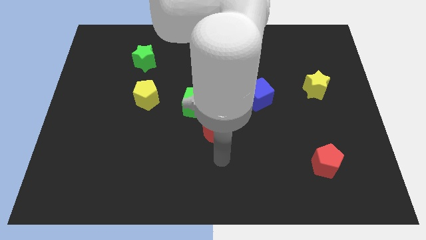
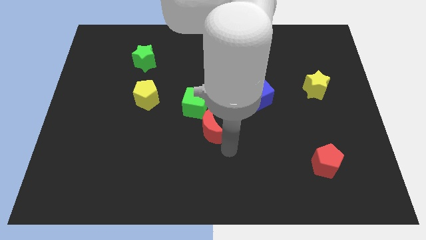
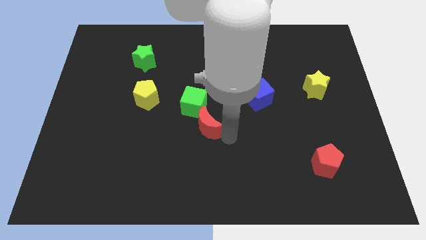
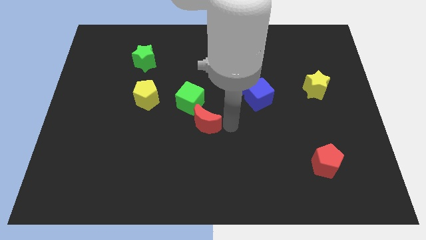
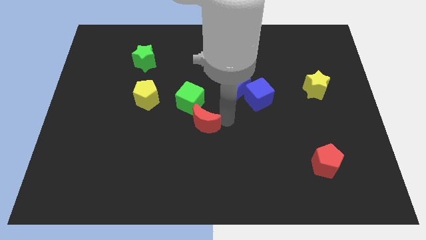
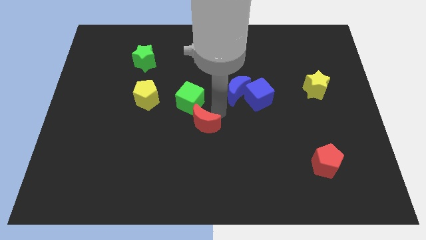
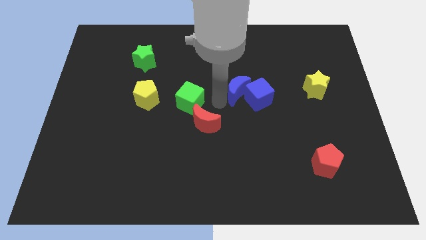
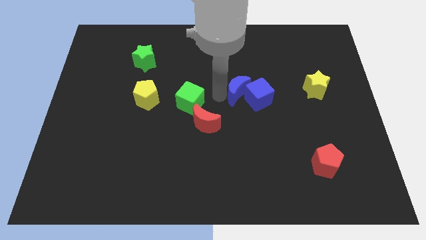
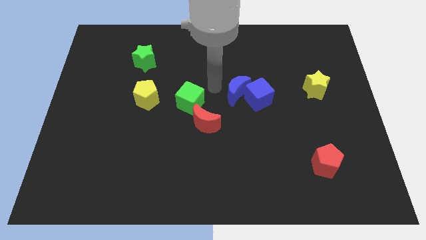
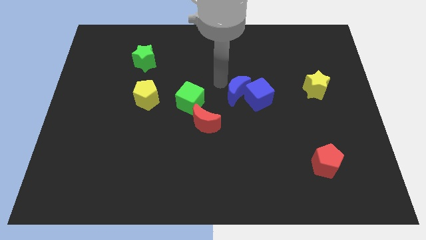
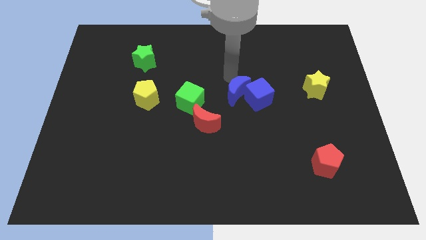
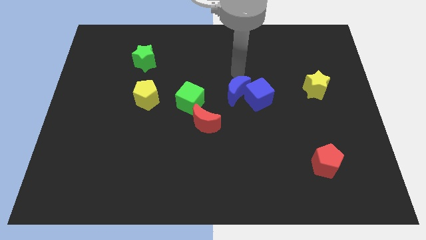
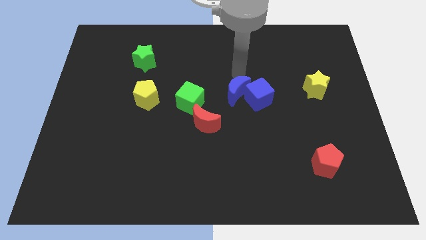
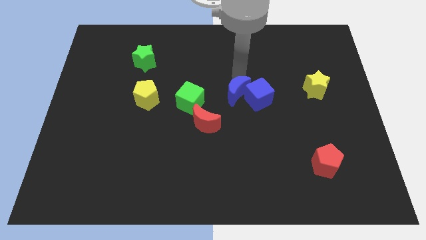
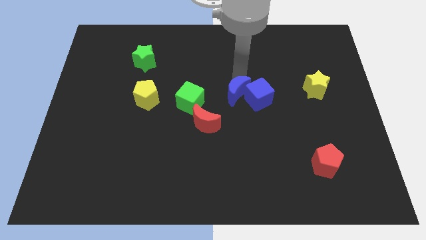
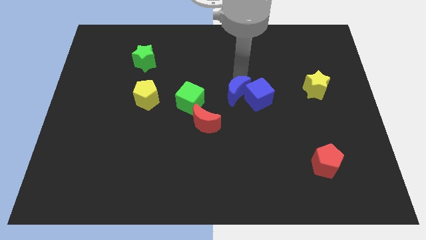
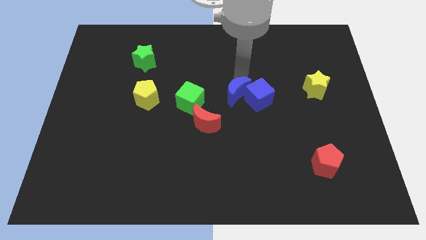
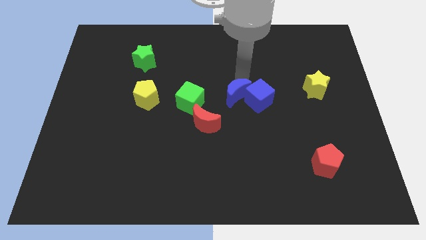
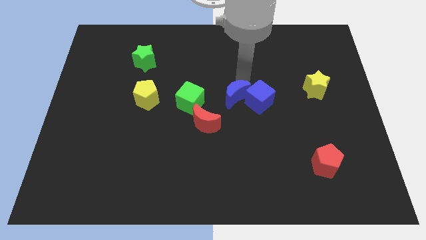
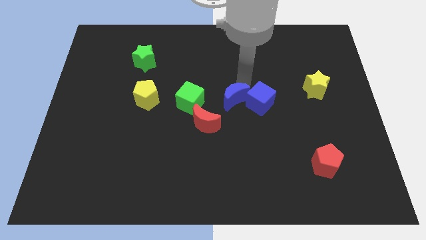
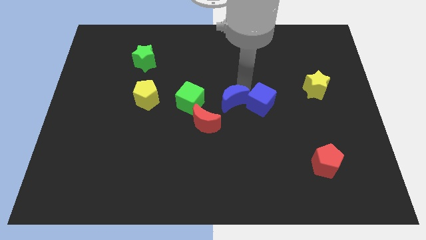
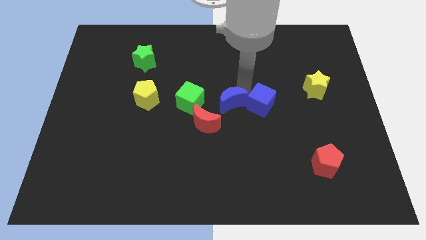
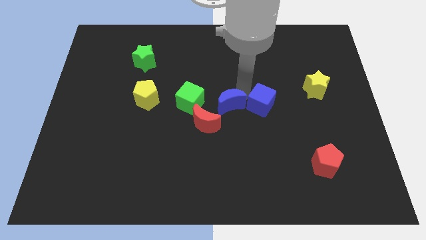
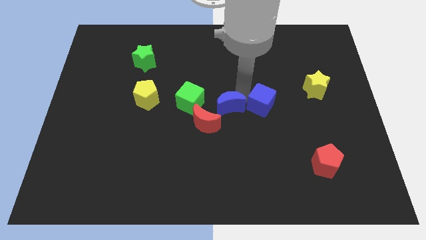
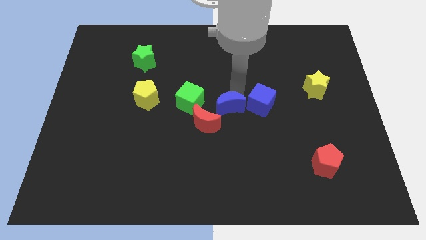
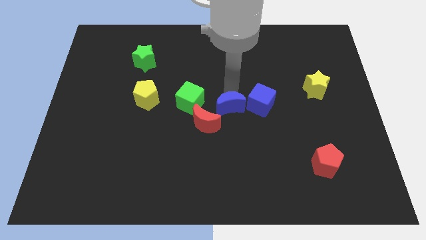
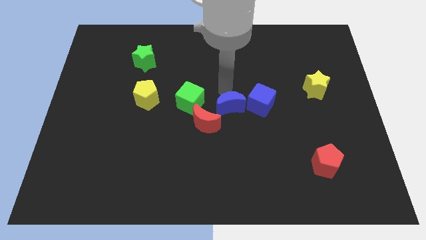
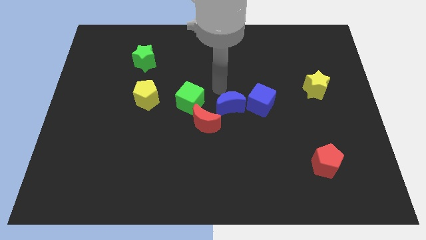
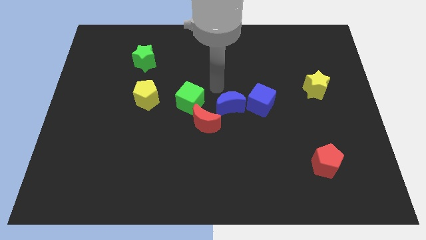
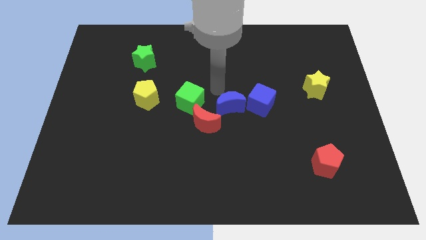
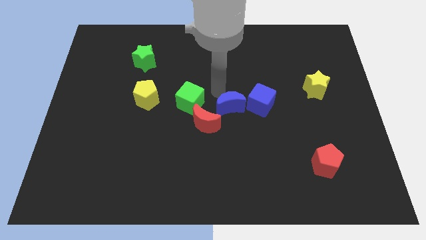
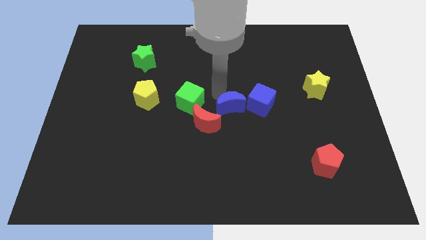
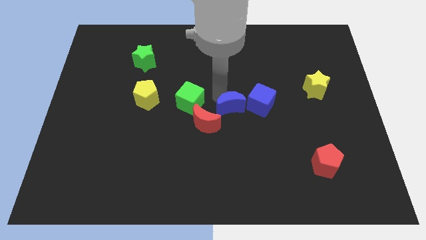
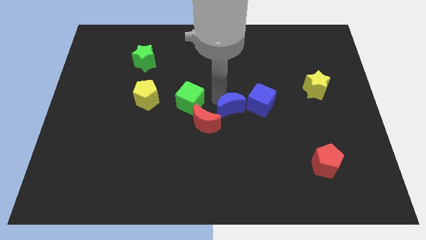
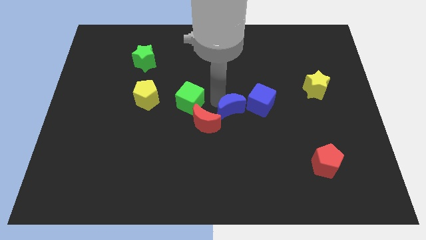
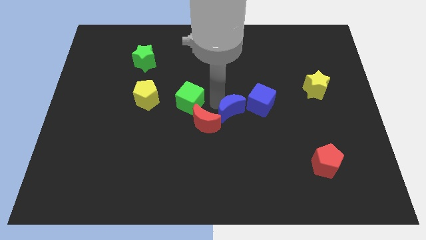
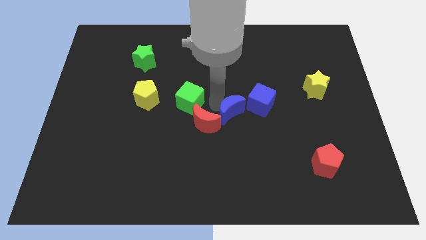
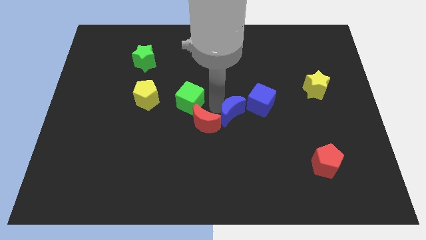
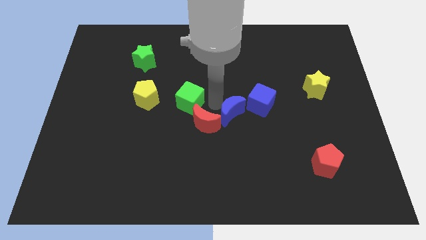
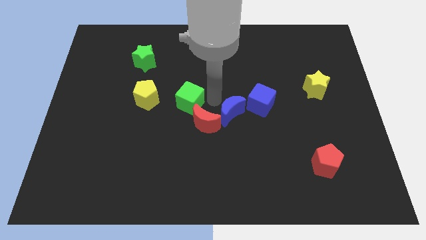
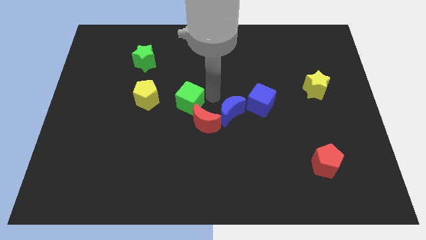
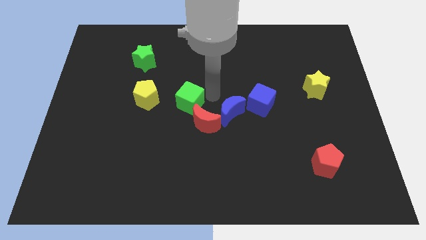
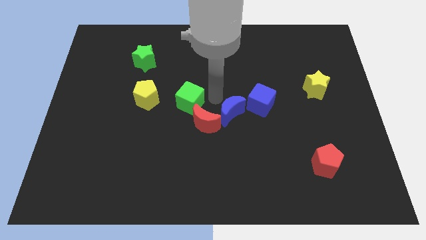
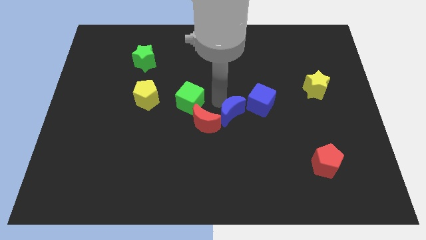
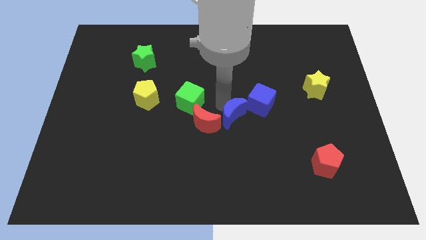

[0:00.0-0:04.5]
move the blue moon slightly downwards

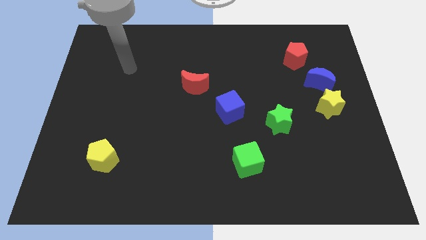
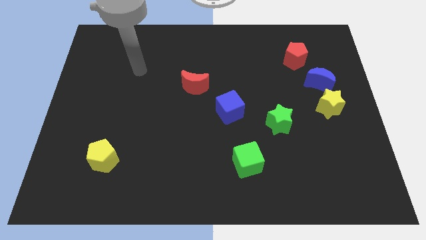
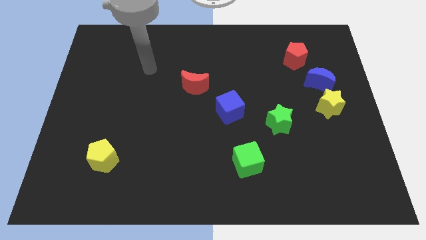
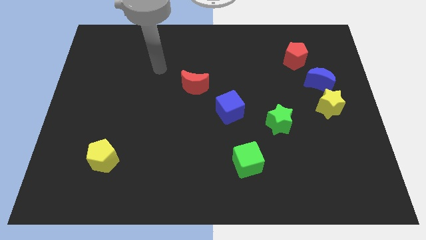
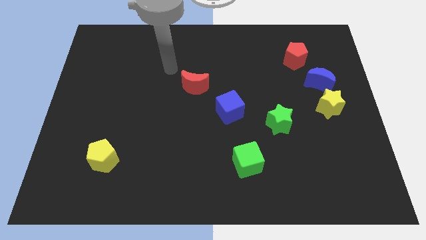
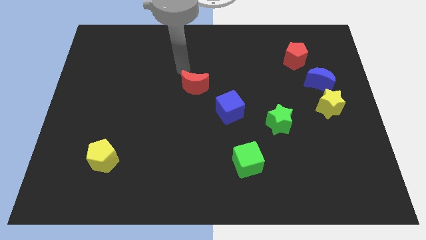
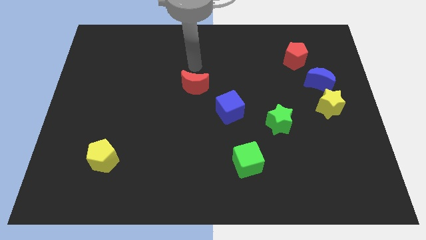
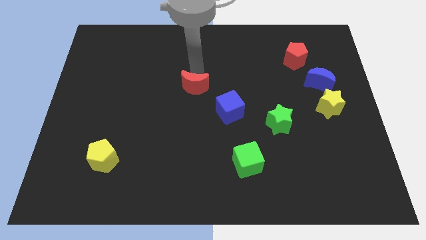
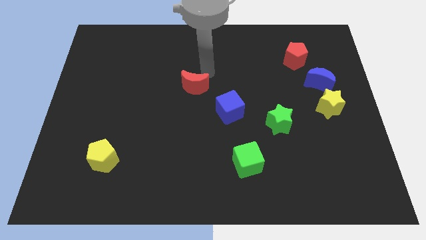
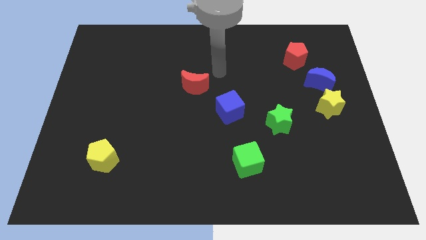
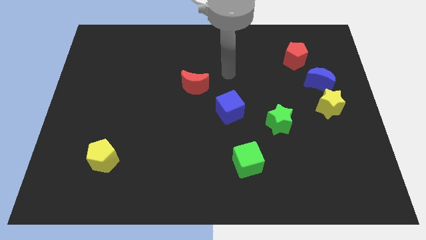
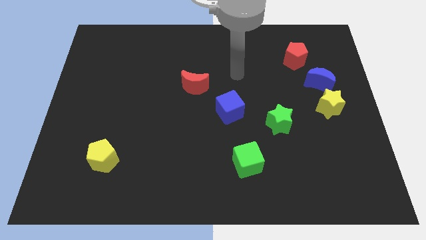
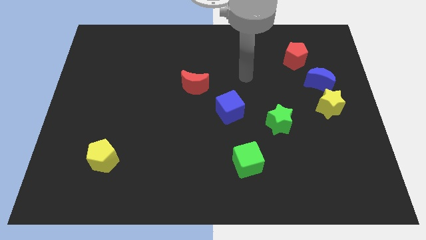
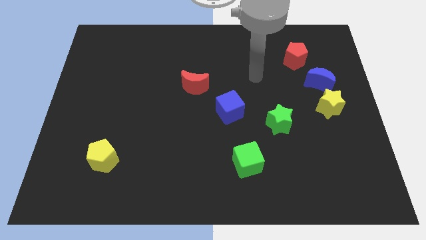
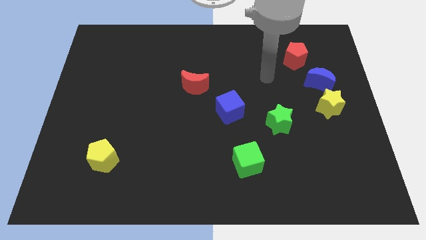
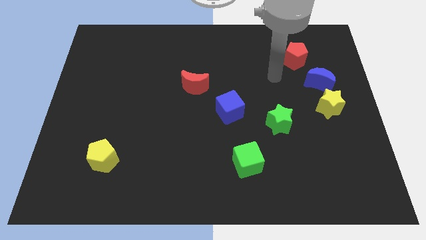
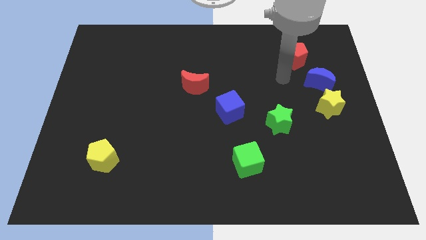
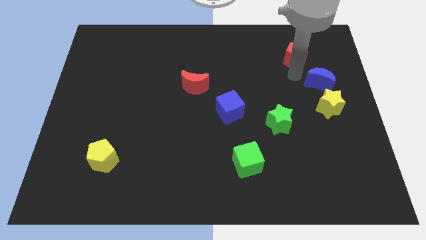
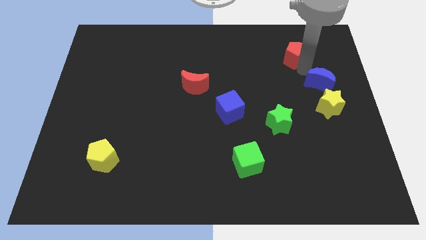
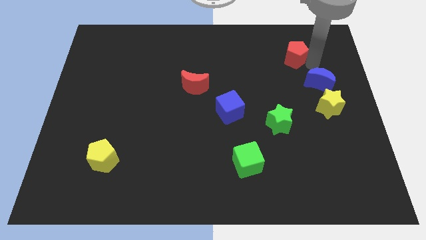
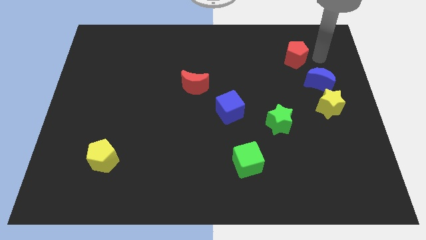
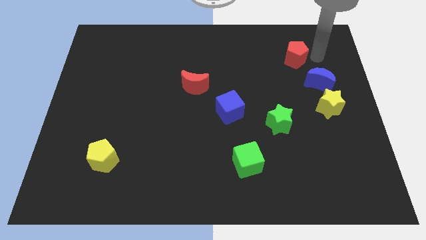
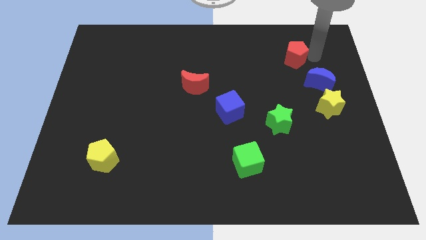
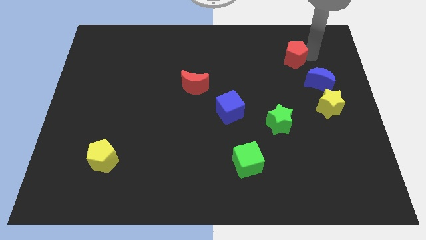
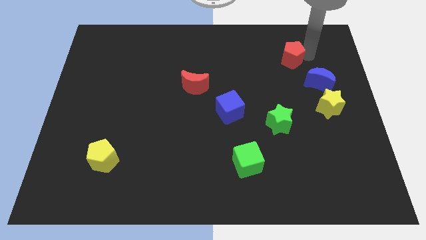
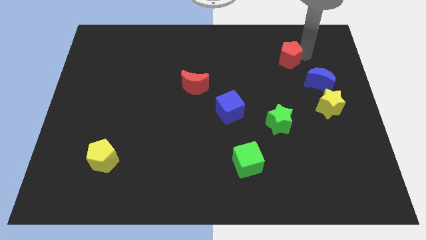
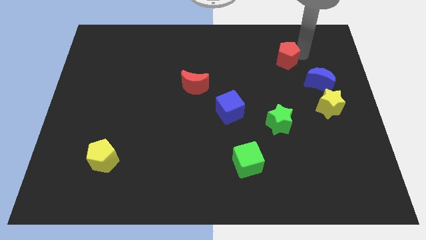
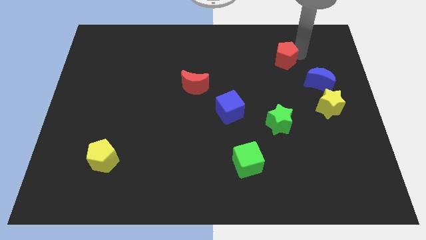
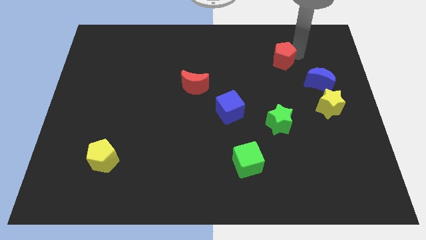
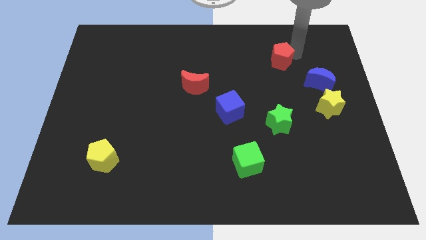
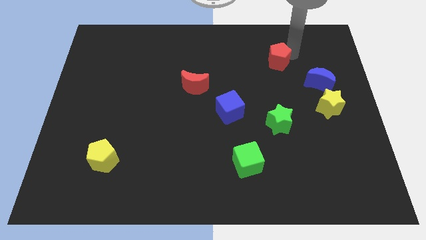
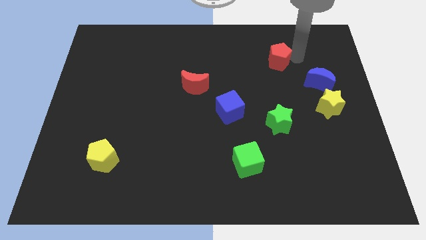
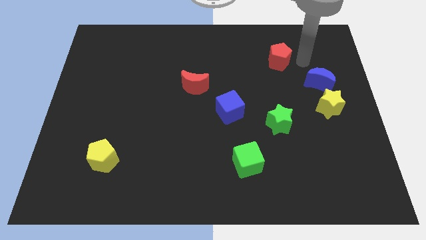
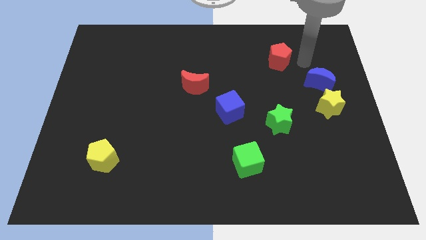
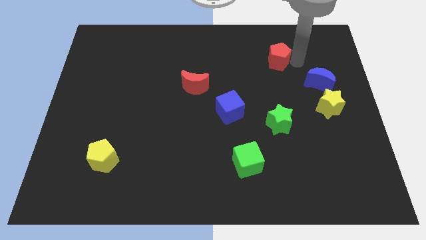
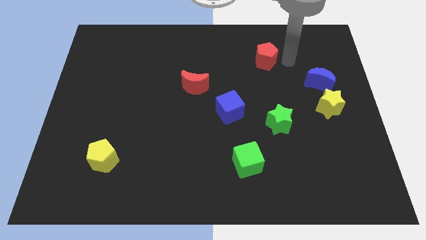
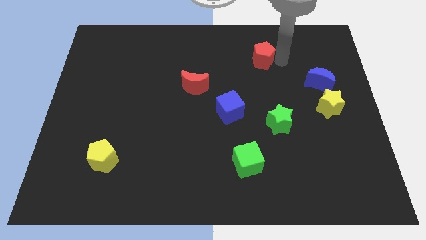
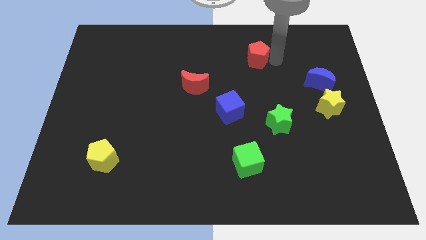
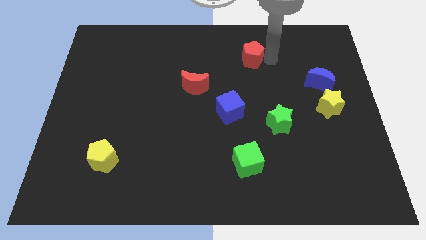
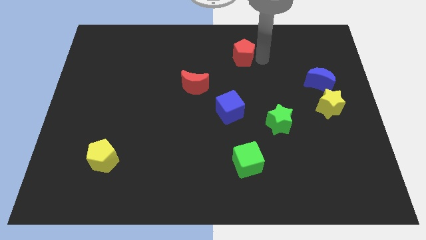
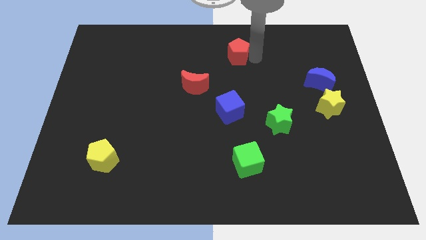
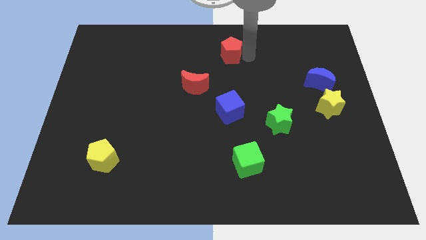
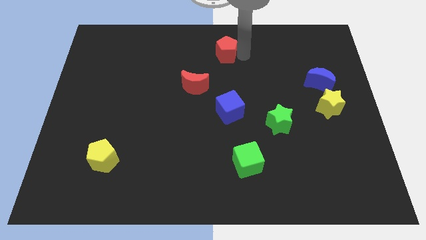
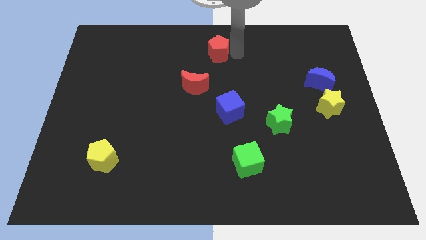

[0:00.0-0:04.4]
slide the red pentagon to the left
